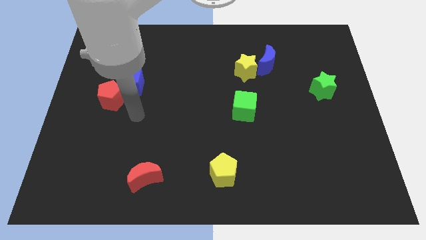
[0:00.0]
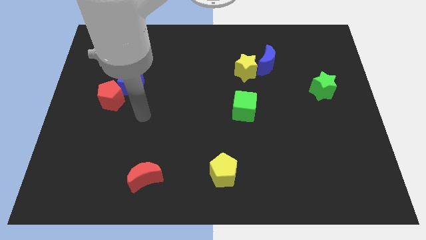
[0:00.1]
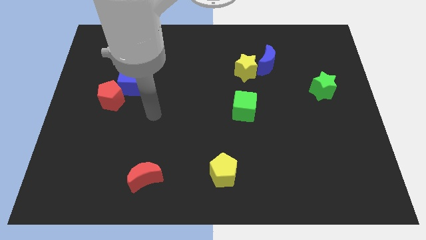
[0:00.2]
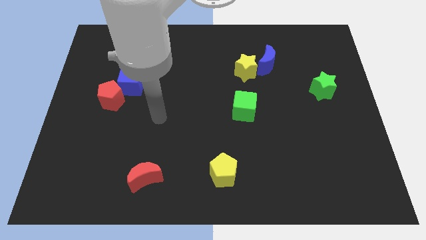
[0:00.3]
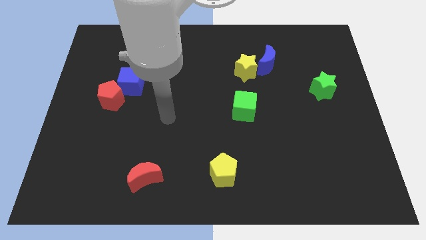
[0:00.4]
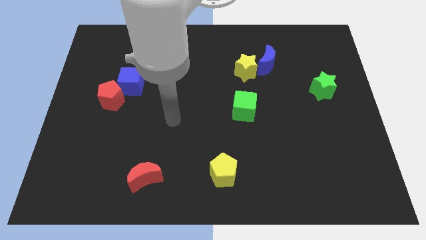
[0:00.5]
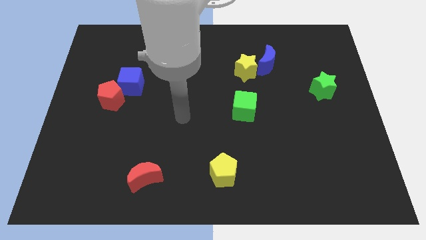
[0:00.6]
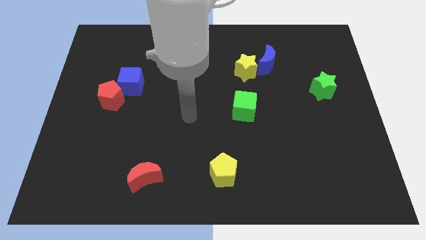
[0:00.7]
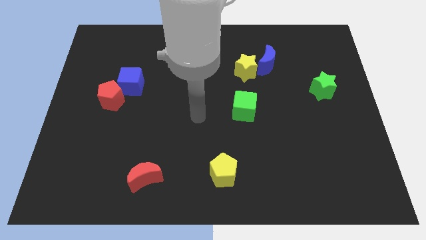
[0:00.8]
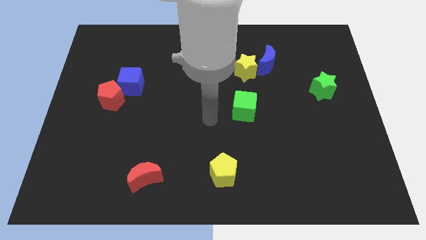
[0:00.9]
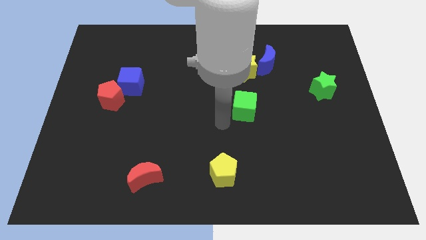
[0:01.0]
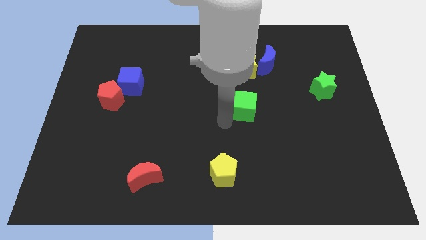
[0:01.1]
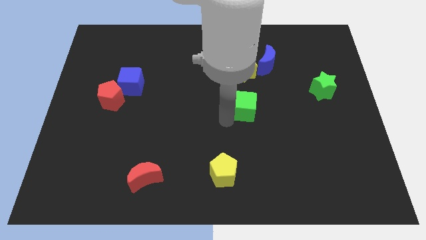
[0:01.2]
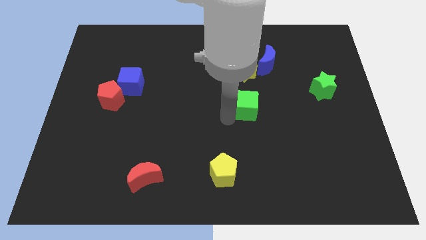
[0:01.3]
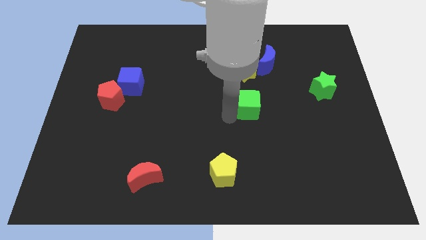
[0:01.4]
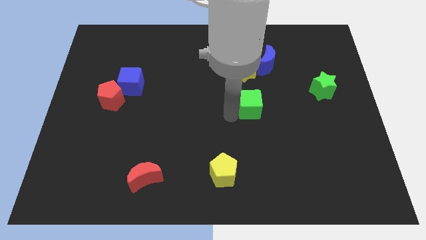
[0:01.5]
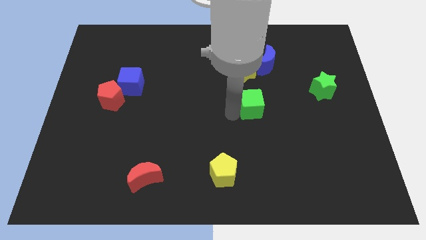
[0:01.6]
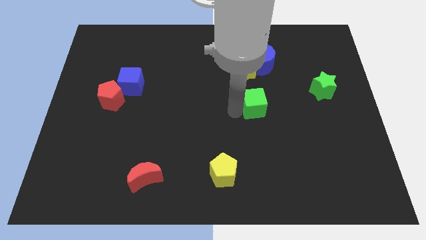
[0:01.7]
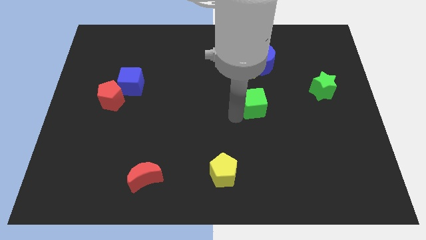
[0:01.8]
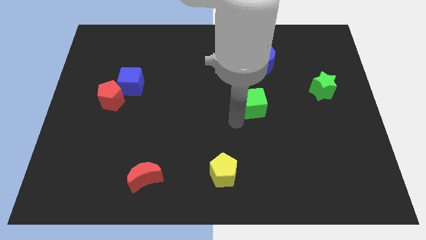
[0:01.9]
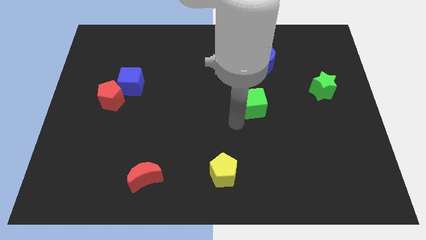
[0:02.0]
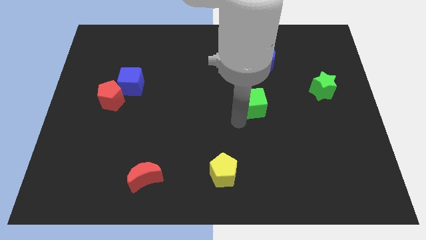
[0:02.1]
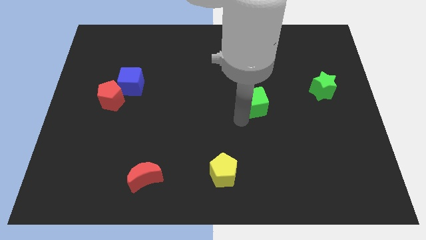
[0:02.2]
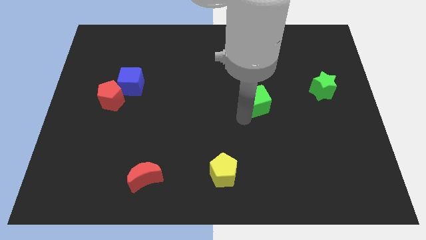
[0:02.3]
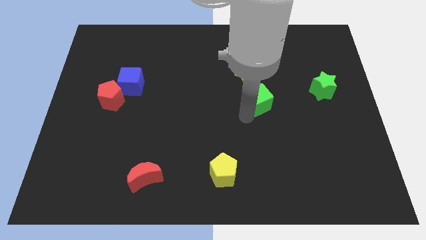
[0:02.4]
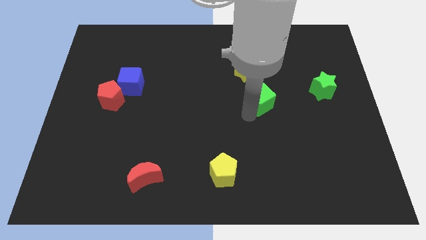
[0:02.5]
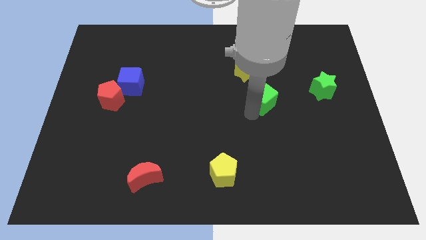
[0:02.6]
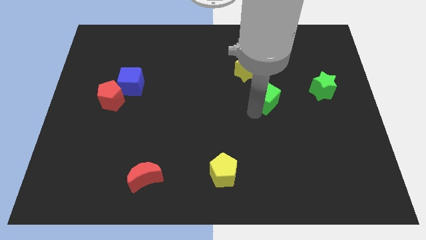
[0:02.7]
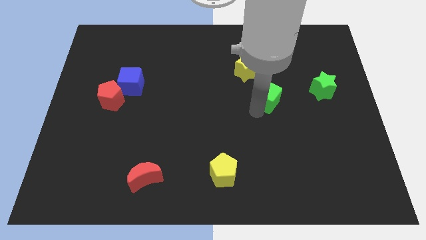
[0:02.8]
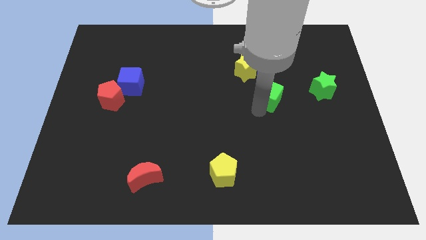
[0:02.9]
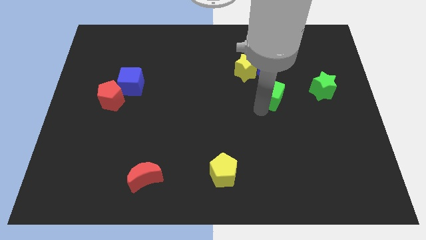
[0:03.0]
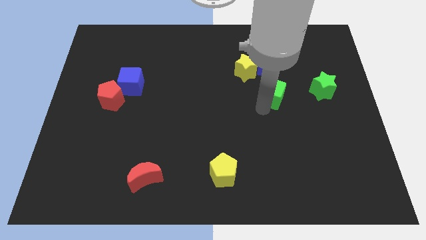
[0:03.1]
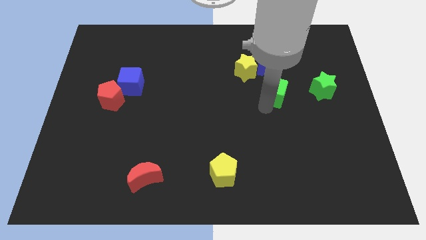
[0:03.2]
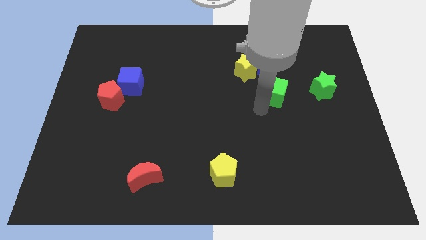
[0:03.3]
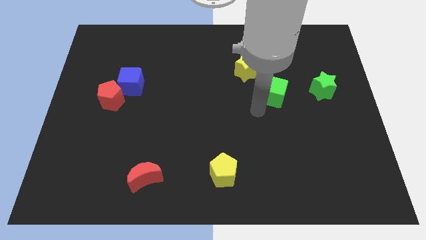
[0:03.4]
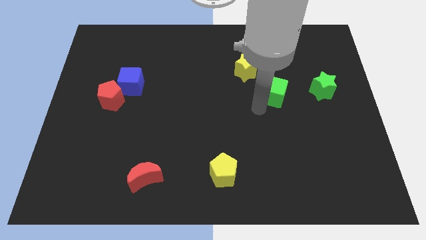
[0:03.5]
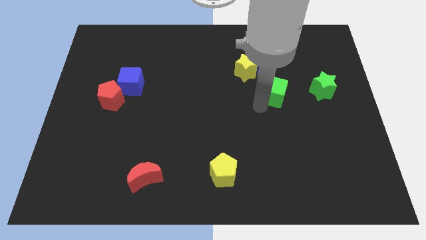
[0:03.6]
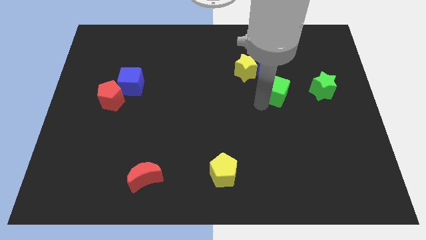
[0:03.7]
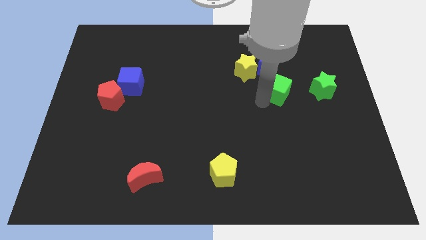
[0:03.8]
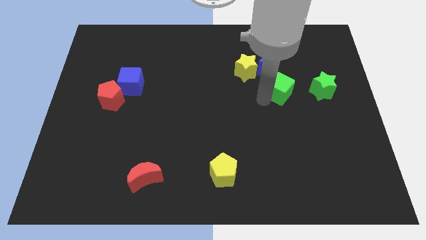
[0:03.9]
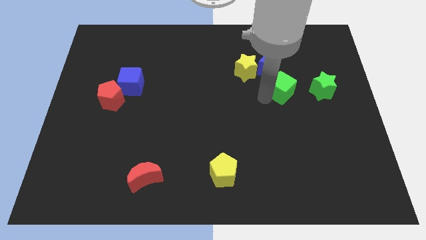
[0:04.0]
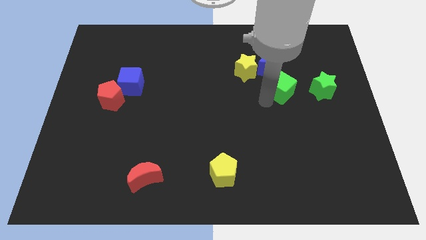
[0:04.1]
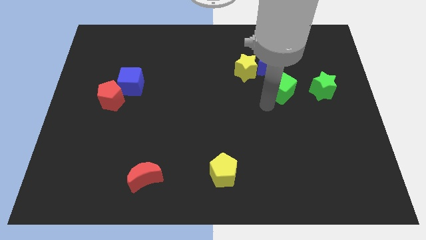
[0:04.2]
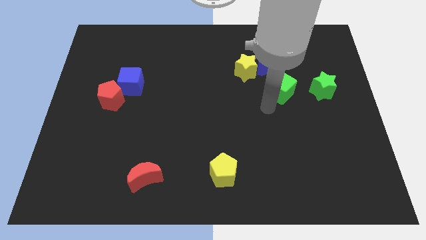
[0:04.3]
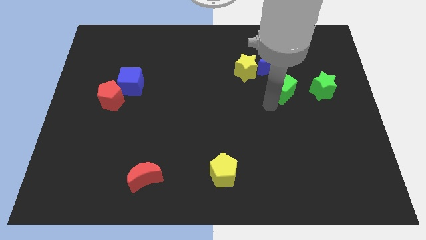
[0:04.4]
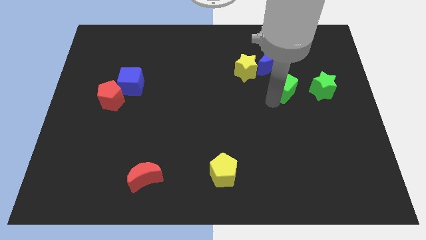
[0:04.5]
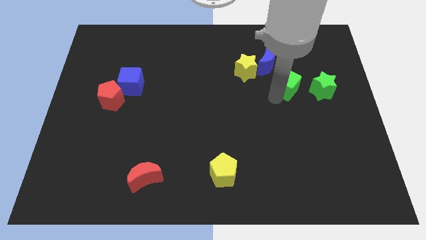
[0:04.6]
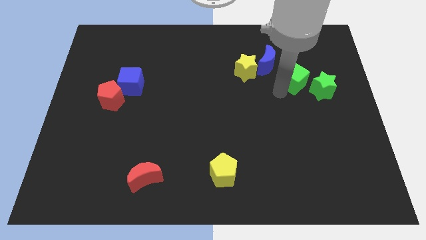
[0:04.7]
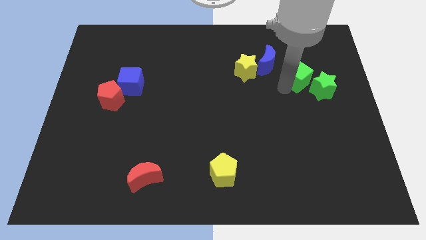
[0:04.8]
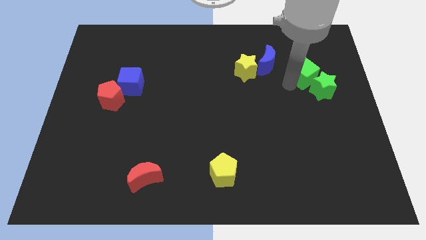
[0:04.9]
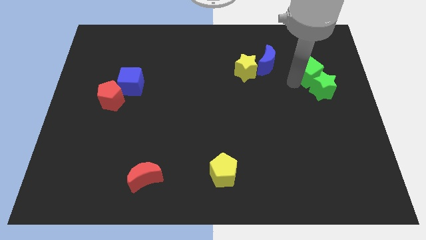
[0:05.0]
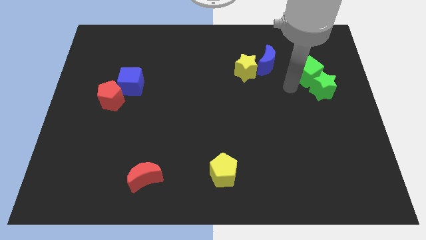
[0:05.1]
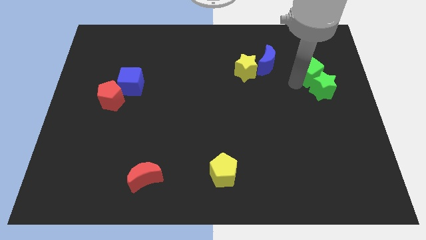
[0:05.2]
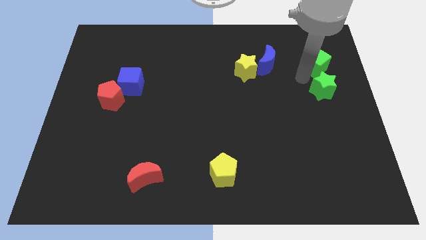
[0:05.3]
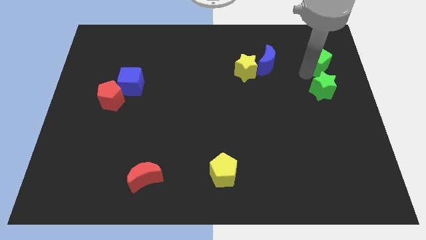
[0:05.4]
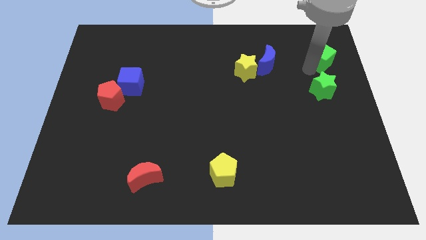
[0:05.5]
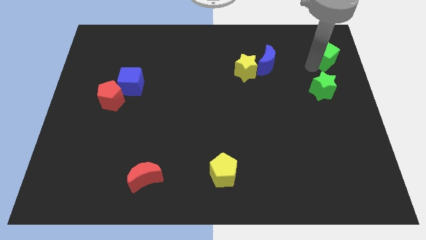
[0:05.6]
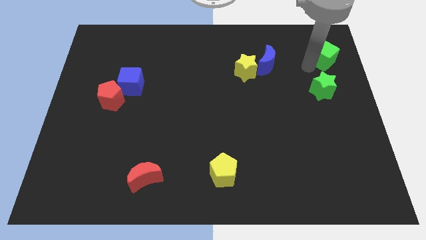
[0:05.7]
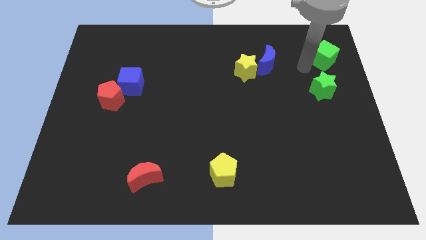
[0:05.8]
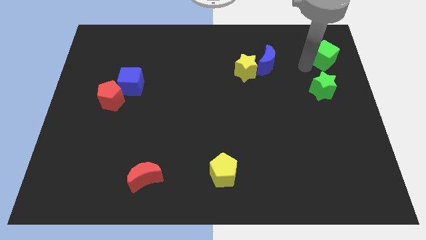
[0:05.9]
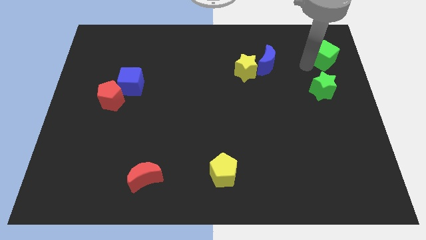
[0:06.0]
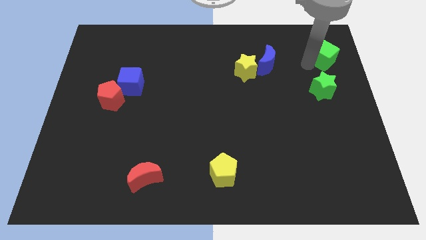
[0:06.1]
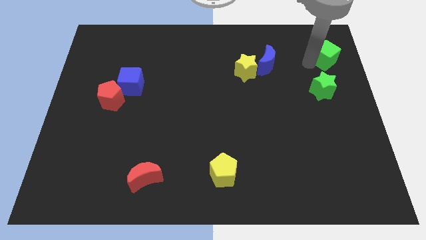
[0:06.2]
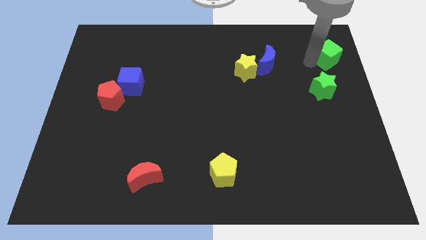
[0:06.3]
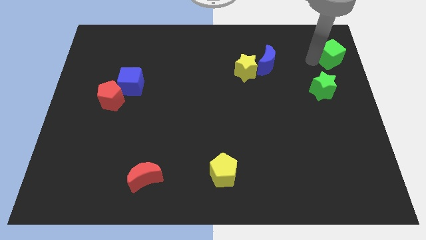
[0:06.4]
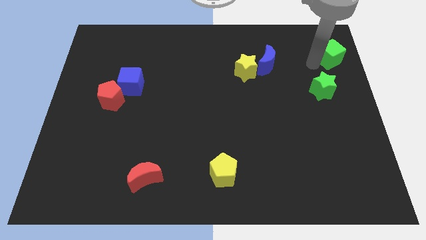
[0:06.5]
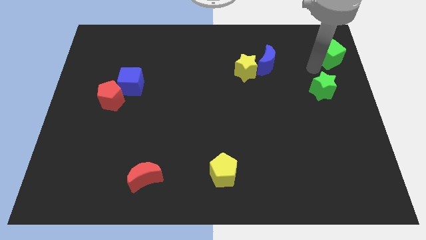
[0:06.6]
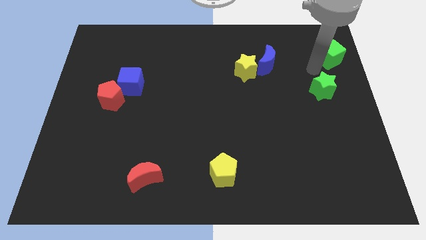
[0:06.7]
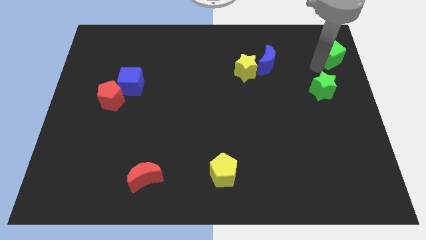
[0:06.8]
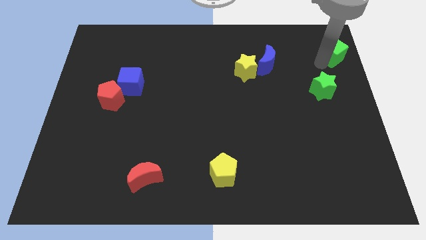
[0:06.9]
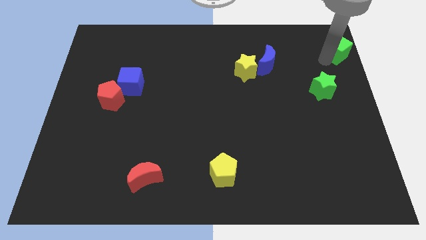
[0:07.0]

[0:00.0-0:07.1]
move the green cube to the top right corner
